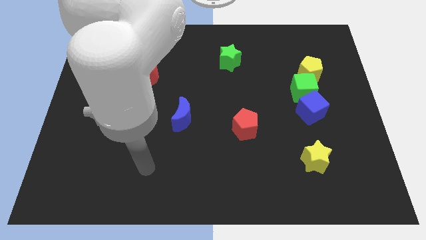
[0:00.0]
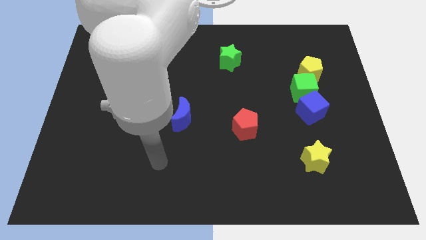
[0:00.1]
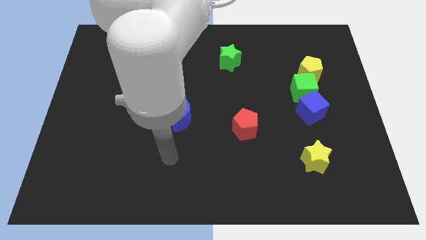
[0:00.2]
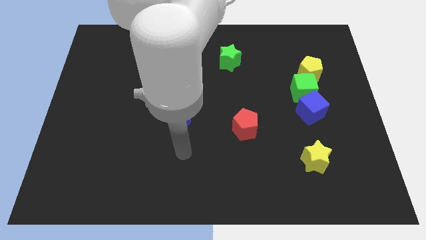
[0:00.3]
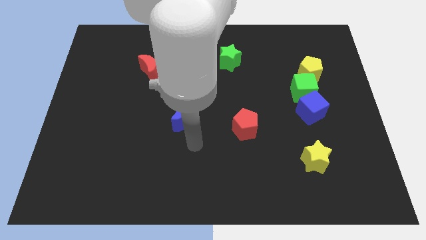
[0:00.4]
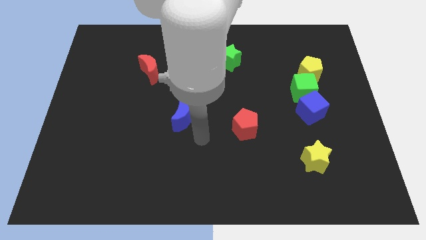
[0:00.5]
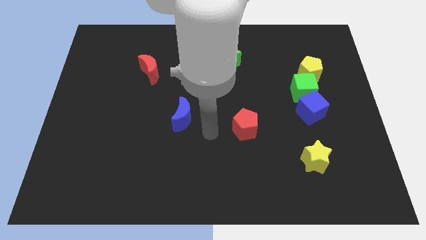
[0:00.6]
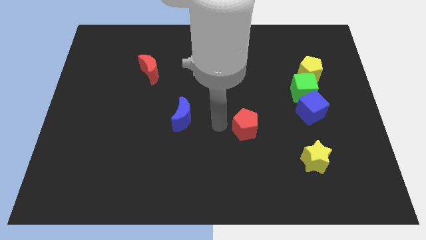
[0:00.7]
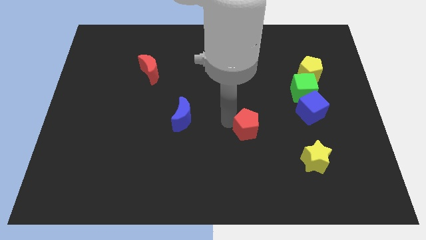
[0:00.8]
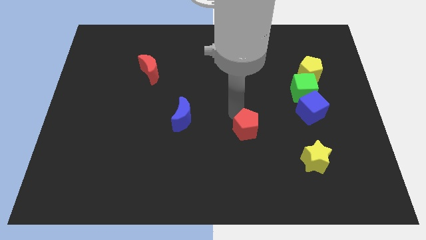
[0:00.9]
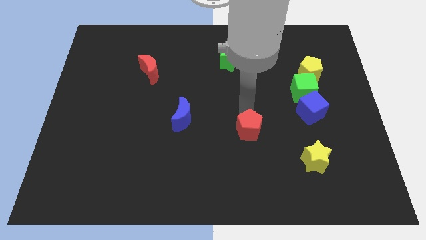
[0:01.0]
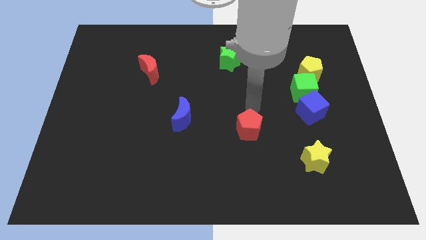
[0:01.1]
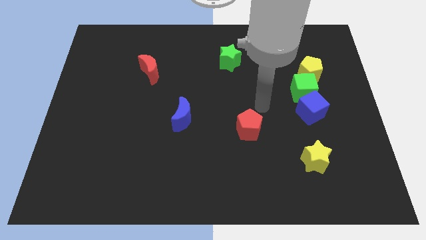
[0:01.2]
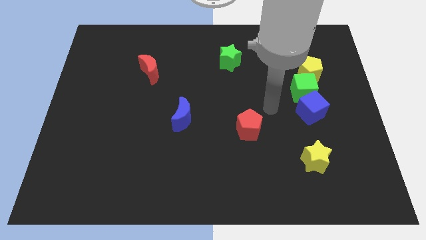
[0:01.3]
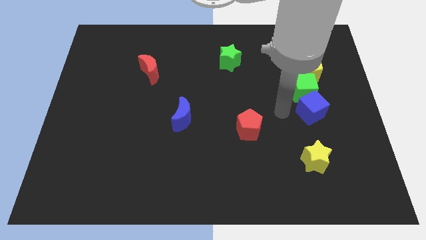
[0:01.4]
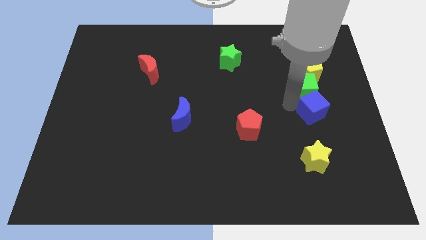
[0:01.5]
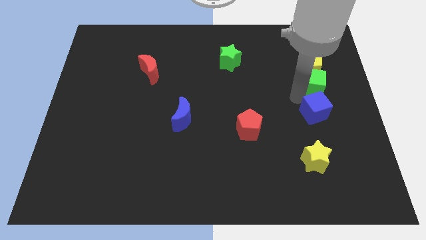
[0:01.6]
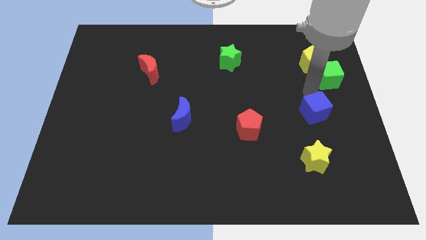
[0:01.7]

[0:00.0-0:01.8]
pull the blue cube apart from the green cube

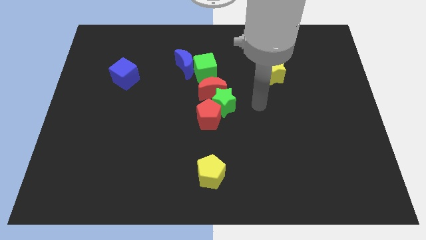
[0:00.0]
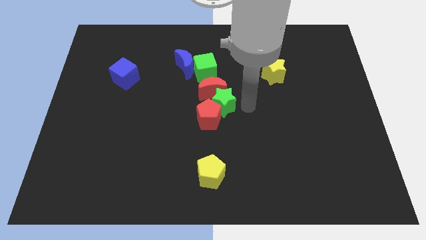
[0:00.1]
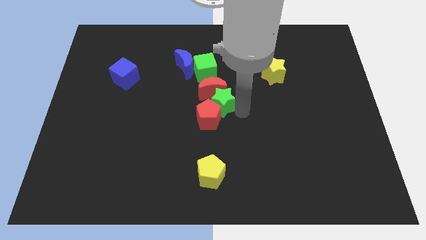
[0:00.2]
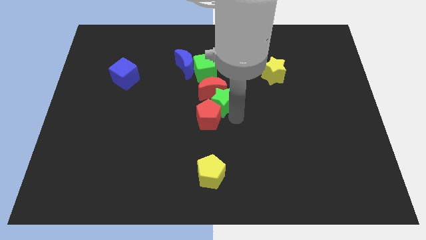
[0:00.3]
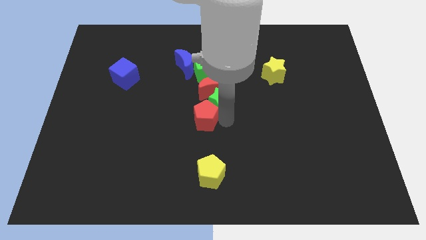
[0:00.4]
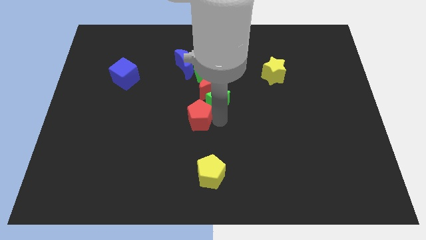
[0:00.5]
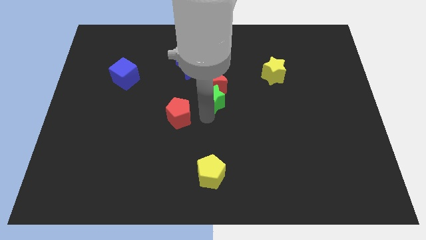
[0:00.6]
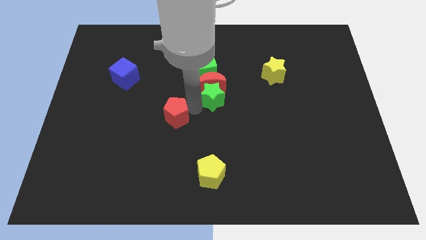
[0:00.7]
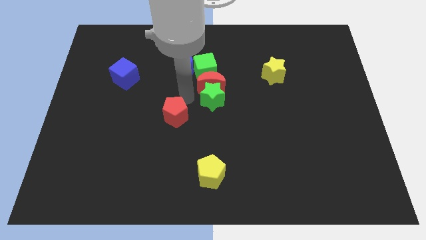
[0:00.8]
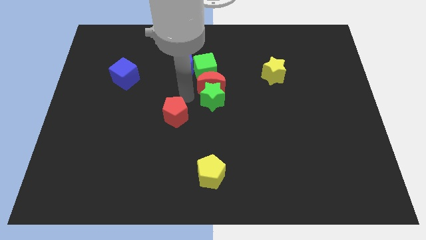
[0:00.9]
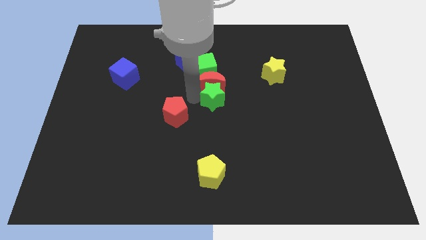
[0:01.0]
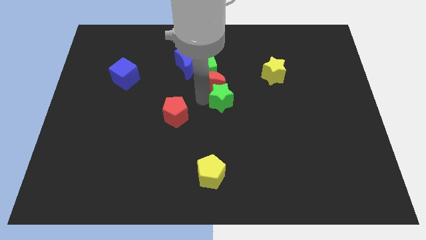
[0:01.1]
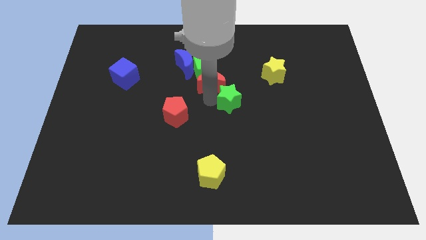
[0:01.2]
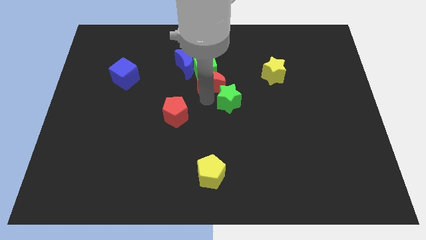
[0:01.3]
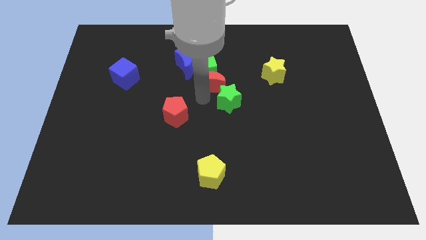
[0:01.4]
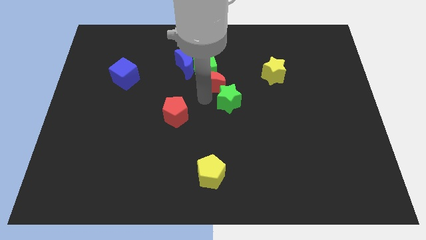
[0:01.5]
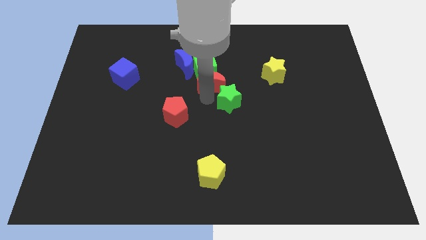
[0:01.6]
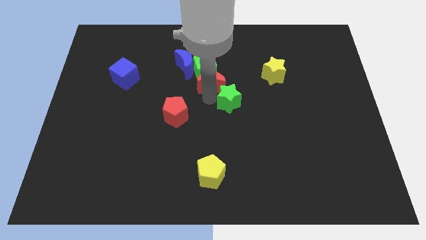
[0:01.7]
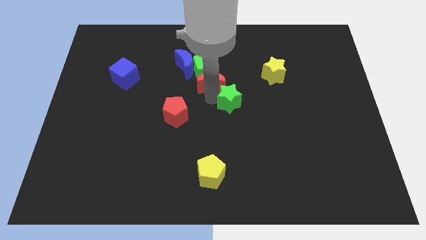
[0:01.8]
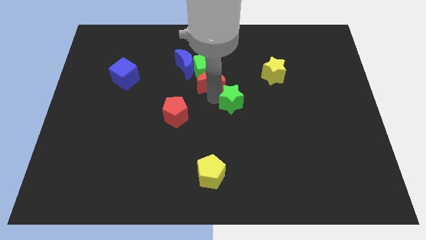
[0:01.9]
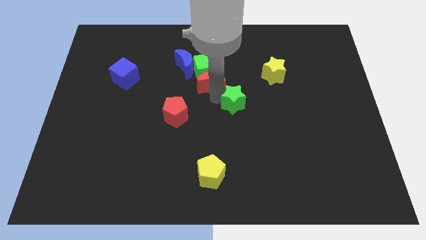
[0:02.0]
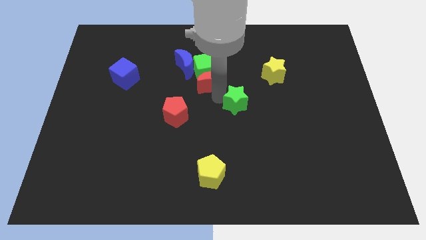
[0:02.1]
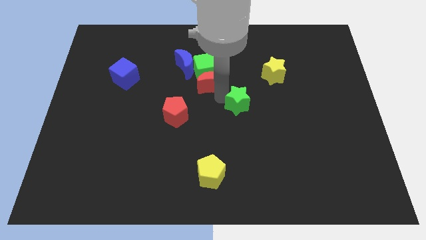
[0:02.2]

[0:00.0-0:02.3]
pull the green star apart from the red pentagon and red moon

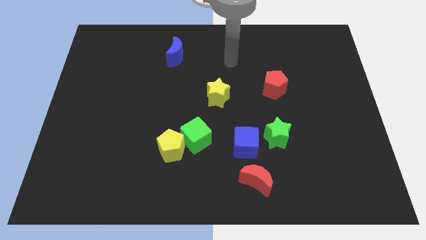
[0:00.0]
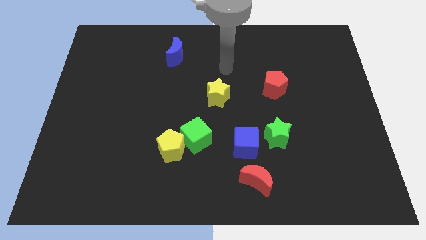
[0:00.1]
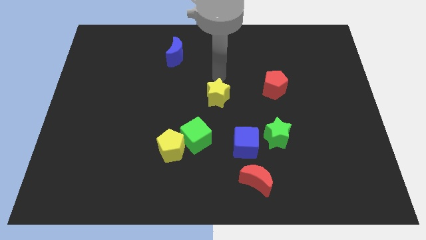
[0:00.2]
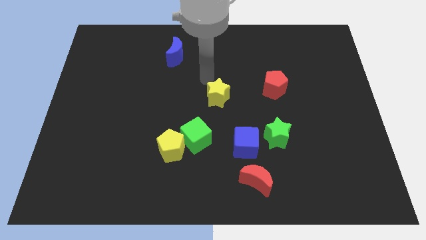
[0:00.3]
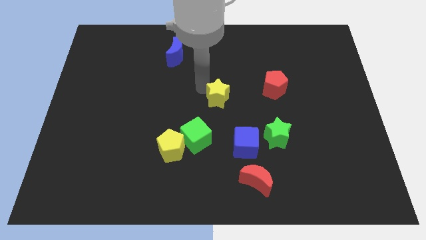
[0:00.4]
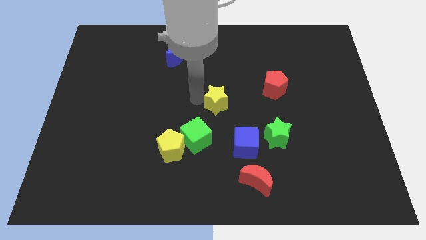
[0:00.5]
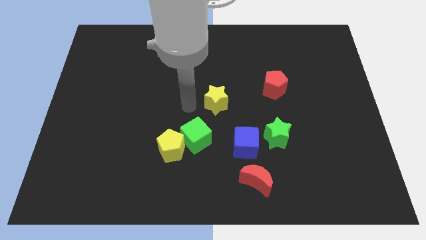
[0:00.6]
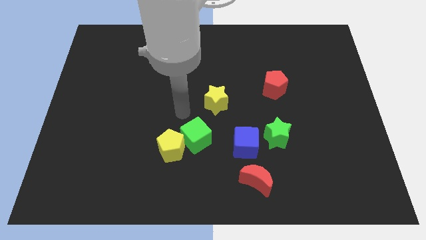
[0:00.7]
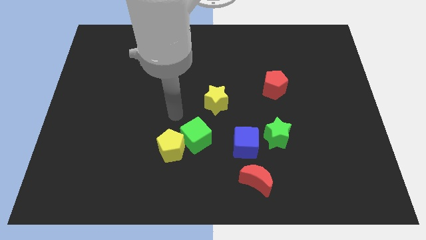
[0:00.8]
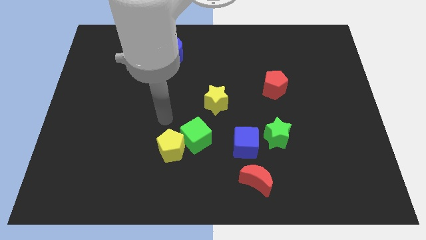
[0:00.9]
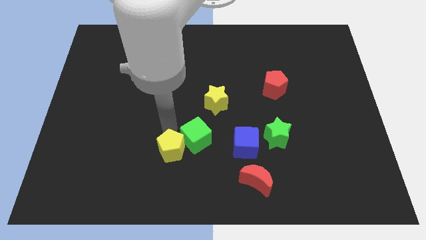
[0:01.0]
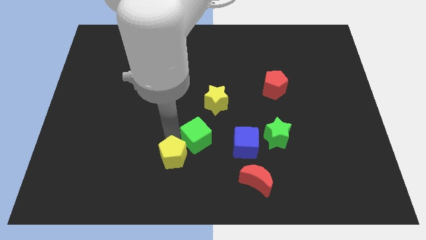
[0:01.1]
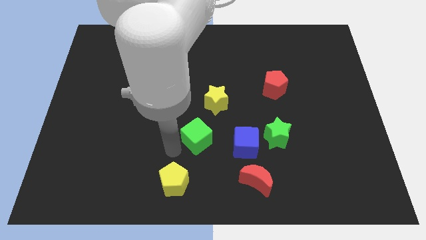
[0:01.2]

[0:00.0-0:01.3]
move the green cube away from the yellow pentagon

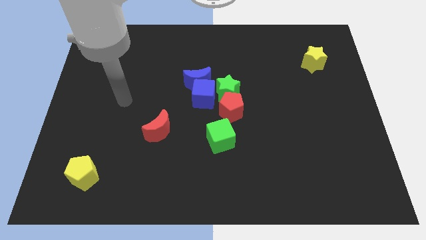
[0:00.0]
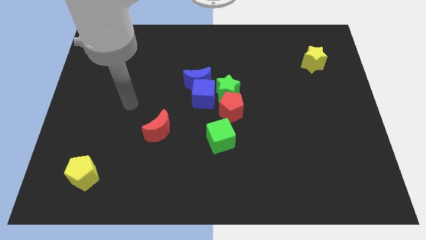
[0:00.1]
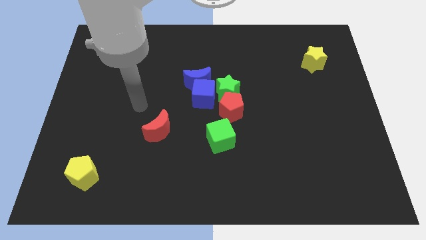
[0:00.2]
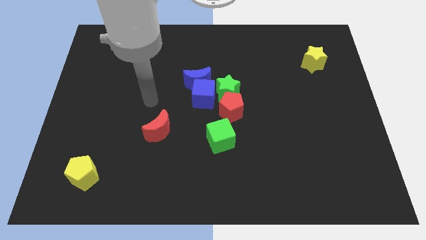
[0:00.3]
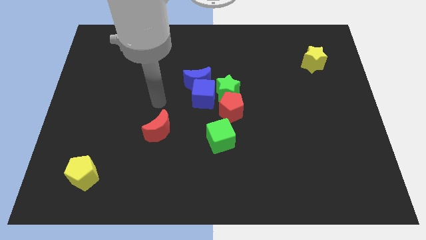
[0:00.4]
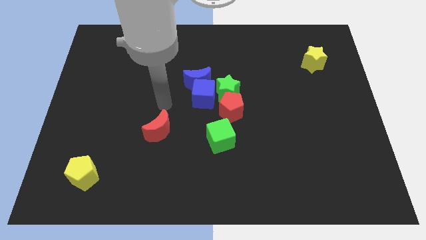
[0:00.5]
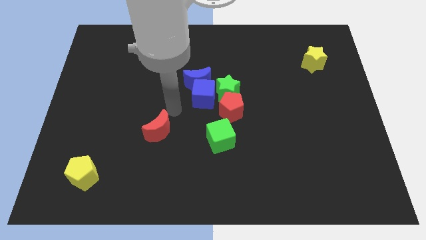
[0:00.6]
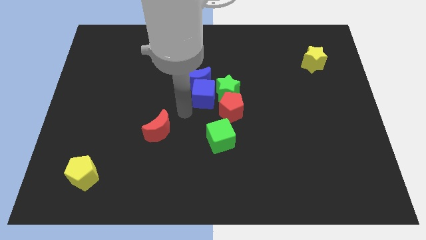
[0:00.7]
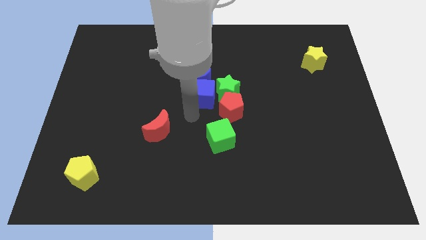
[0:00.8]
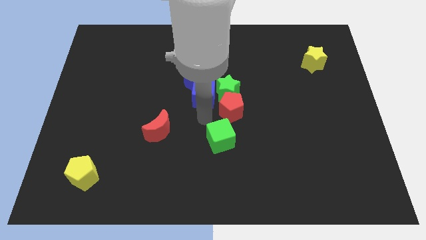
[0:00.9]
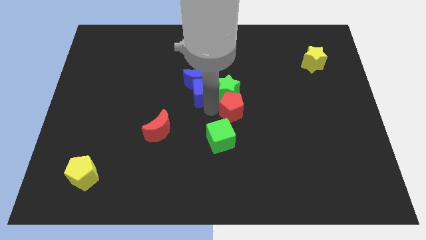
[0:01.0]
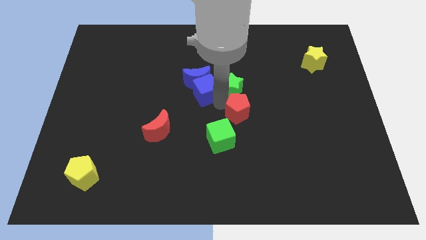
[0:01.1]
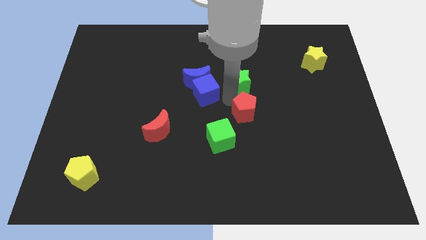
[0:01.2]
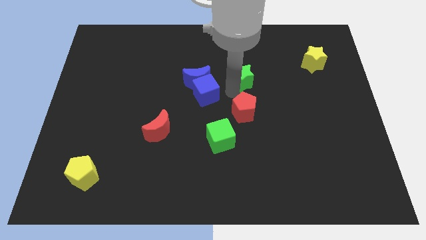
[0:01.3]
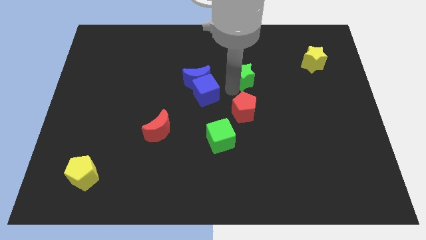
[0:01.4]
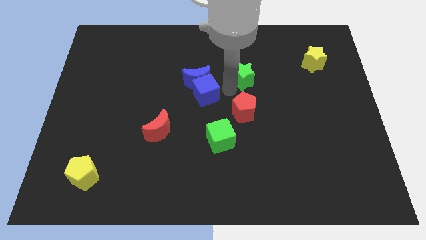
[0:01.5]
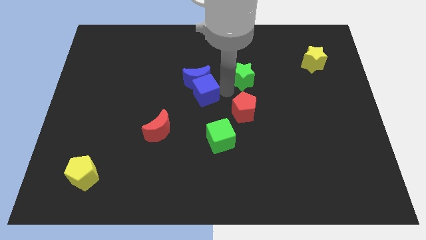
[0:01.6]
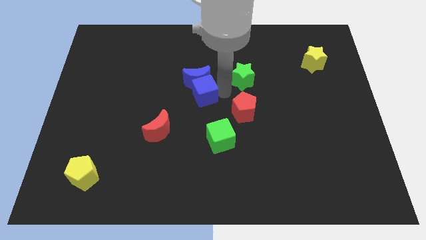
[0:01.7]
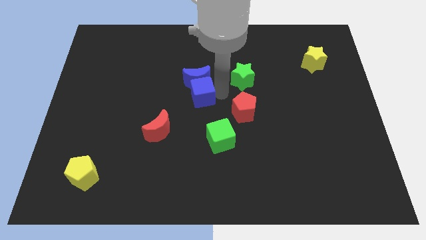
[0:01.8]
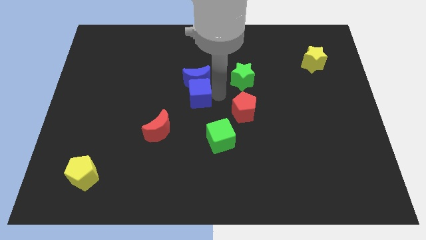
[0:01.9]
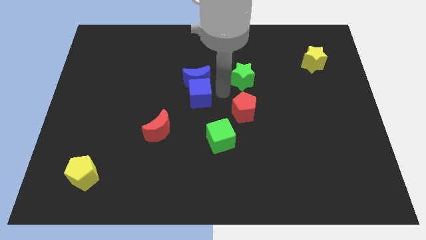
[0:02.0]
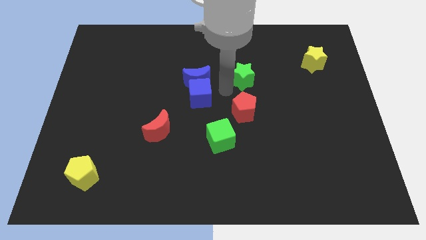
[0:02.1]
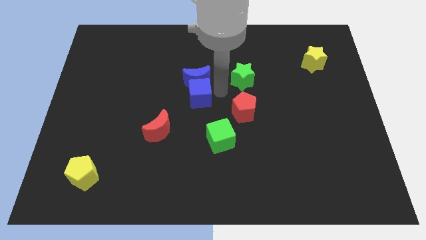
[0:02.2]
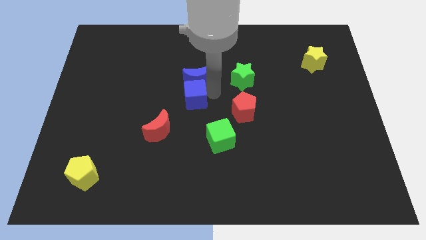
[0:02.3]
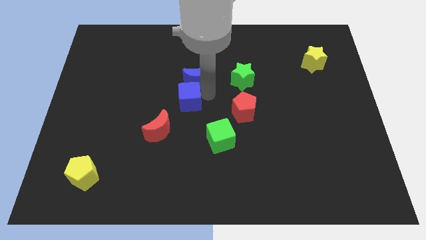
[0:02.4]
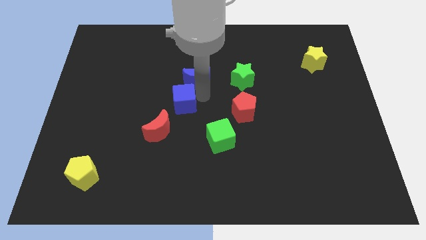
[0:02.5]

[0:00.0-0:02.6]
pull the blue cube apart from the blue moon, green star, and red pentagon

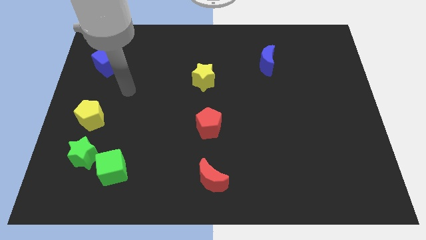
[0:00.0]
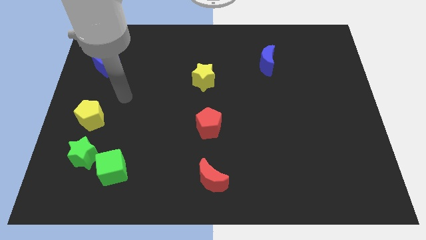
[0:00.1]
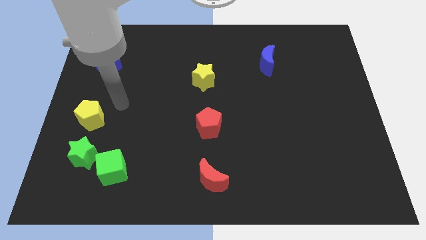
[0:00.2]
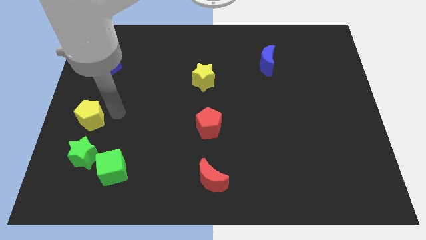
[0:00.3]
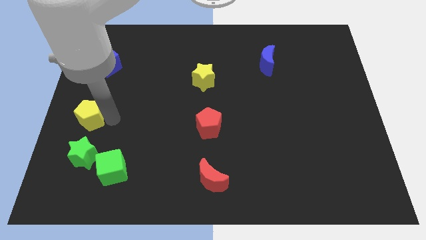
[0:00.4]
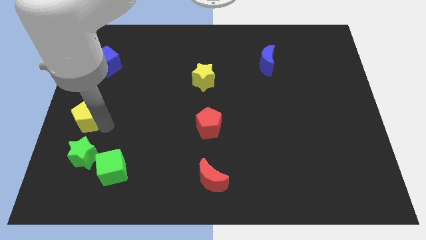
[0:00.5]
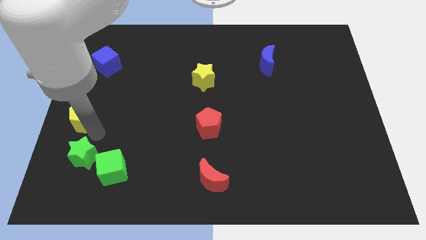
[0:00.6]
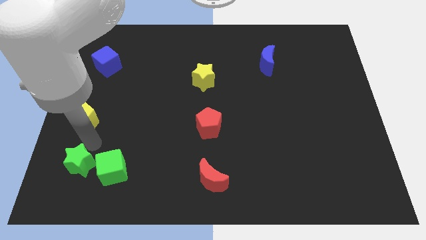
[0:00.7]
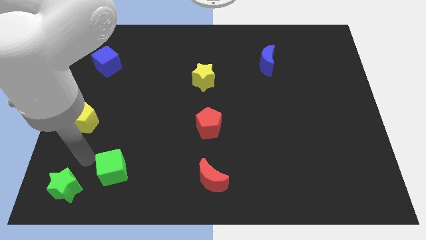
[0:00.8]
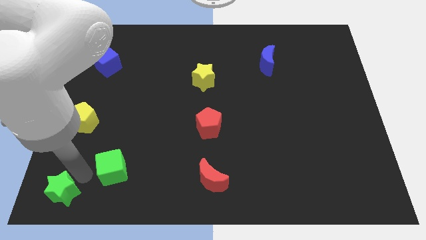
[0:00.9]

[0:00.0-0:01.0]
move the green cube away from the green star

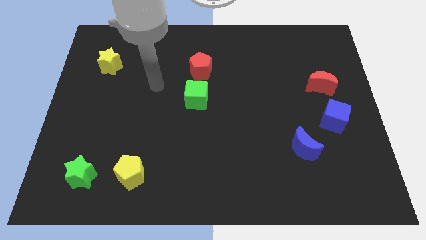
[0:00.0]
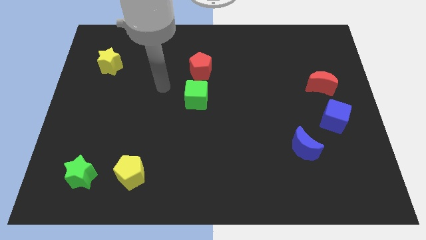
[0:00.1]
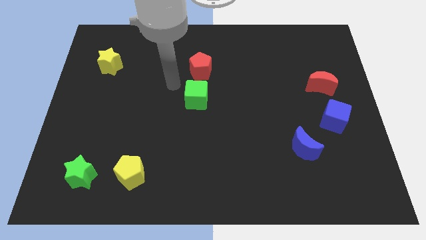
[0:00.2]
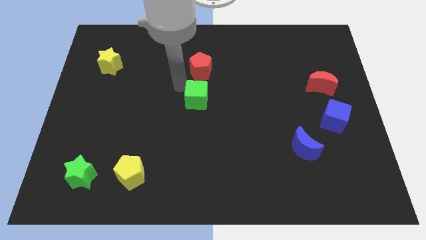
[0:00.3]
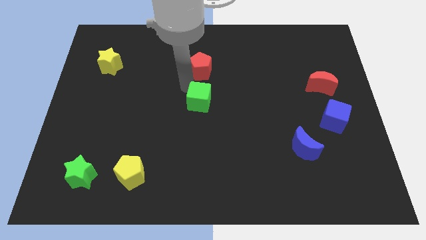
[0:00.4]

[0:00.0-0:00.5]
separate the red pentagon from the green cube
